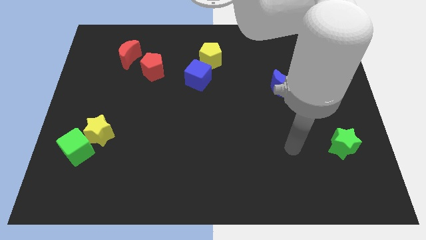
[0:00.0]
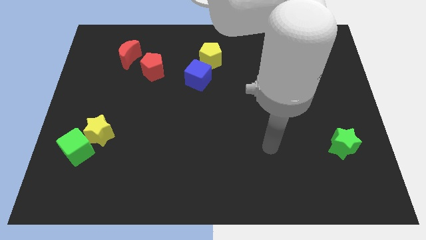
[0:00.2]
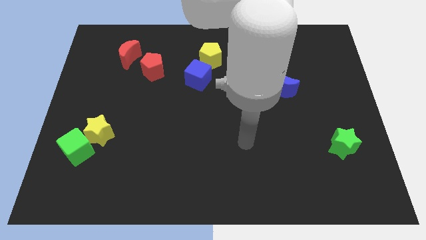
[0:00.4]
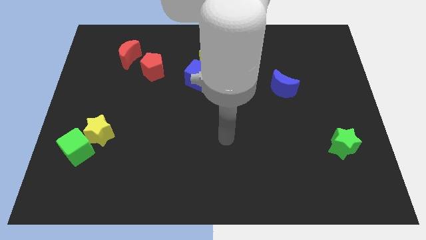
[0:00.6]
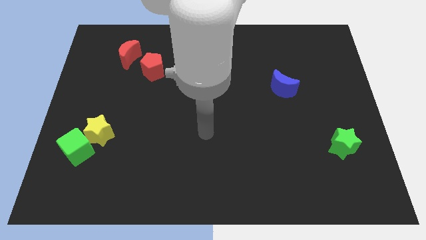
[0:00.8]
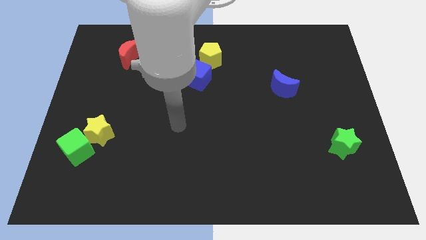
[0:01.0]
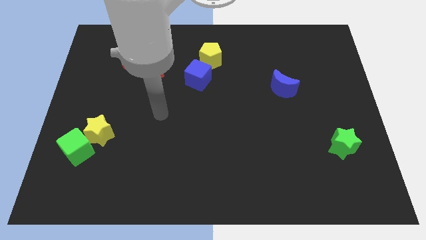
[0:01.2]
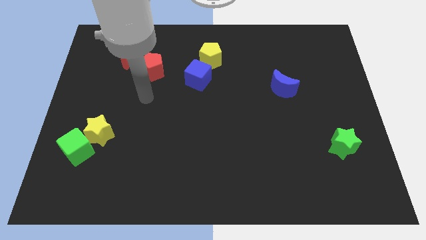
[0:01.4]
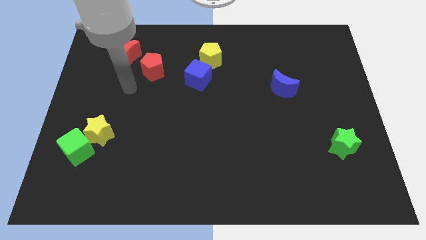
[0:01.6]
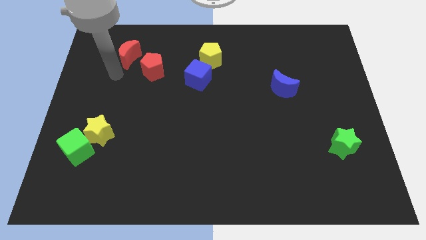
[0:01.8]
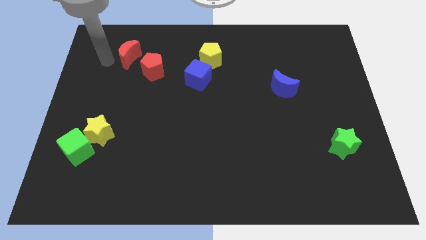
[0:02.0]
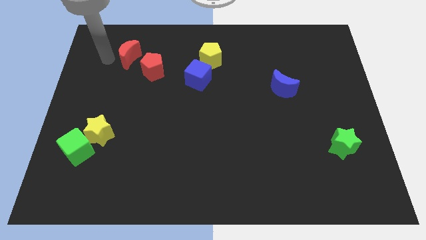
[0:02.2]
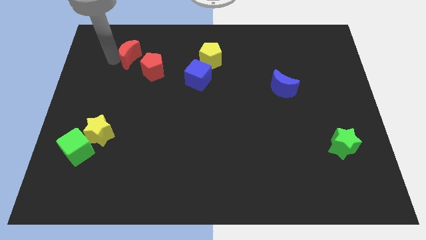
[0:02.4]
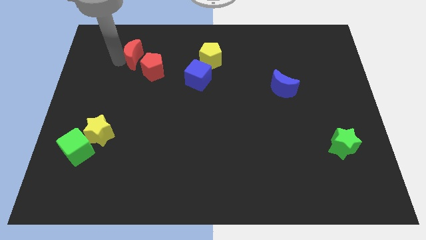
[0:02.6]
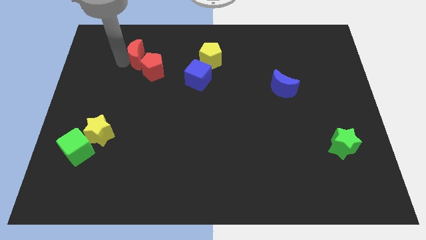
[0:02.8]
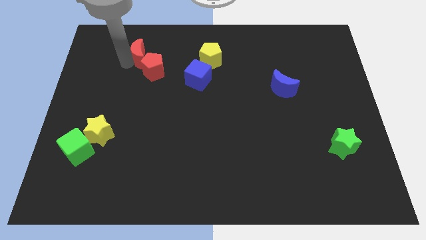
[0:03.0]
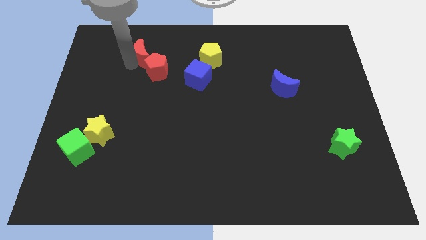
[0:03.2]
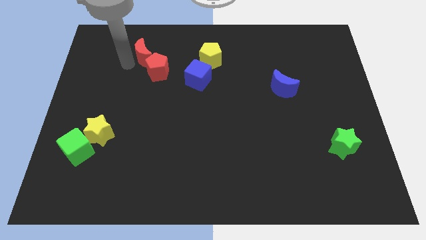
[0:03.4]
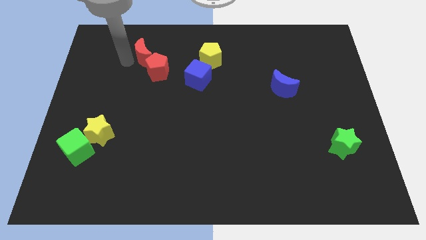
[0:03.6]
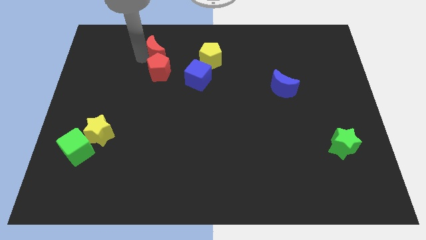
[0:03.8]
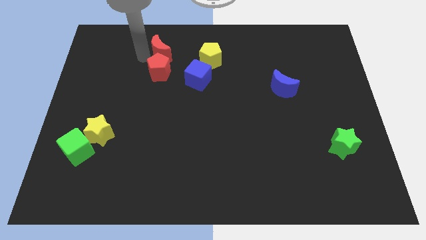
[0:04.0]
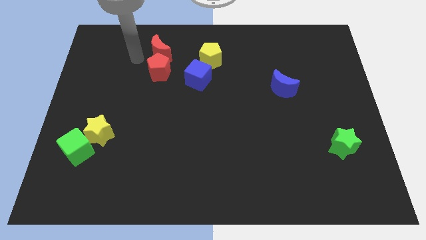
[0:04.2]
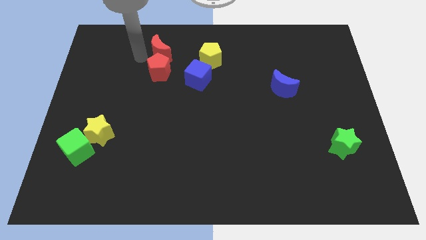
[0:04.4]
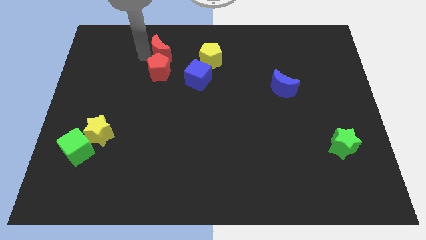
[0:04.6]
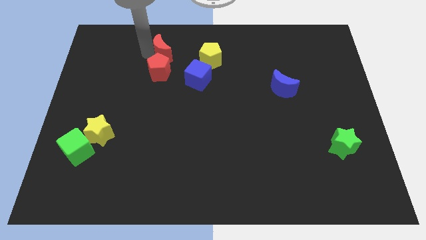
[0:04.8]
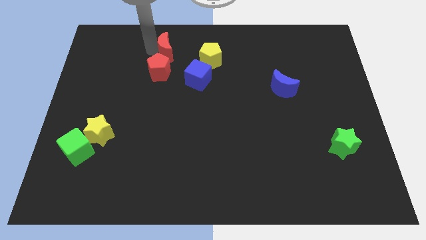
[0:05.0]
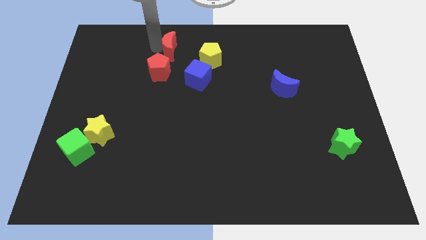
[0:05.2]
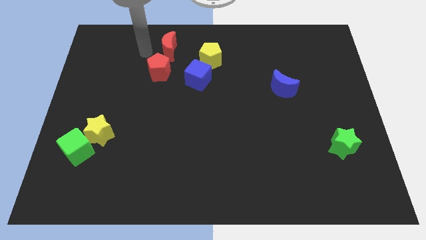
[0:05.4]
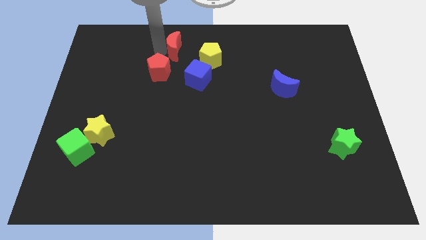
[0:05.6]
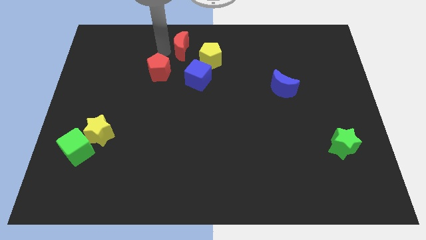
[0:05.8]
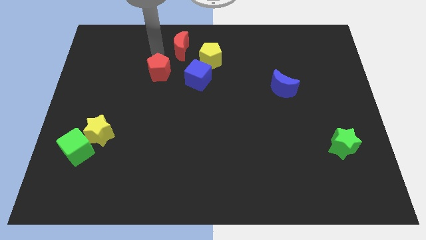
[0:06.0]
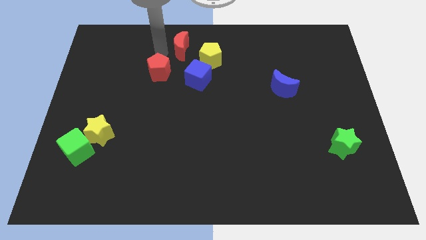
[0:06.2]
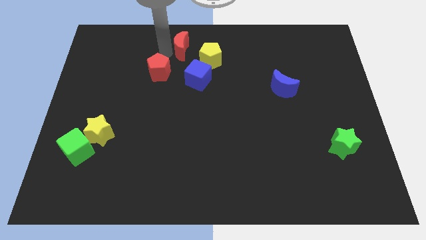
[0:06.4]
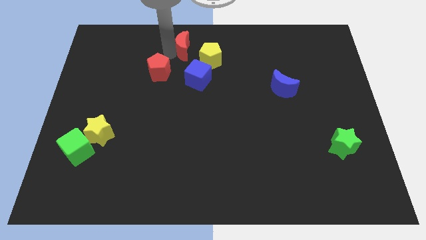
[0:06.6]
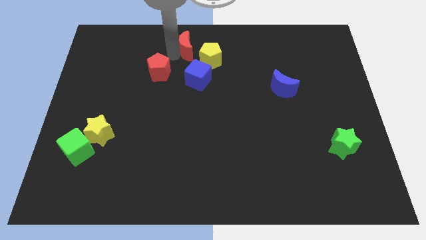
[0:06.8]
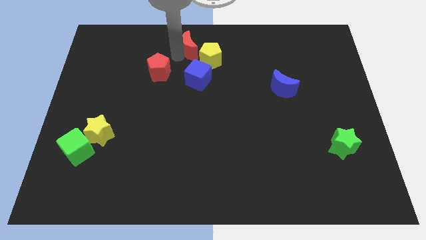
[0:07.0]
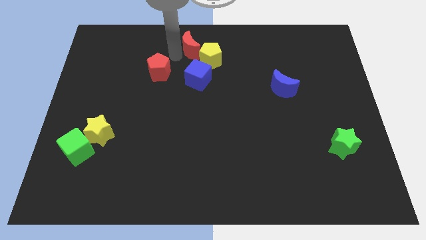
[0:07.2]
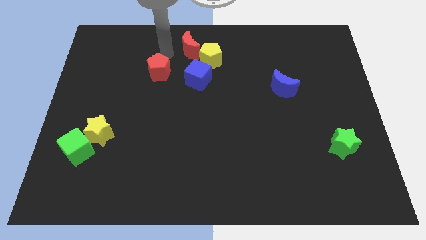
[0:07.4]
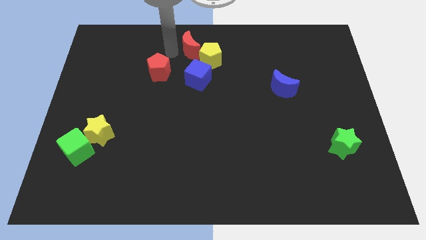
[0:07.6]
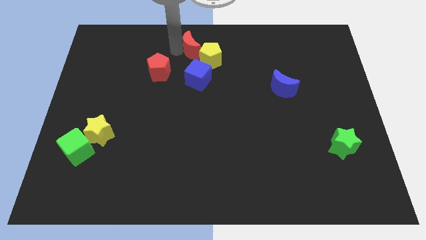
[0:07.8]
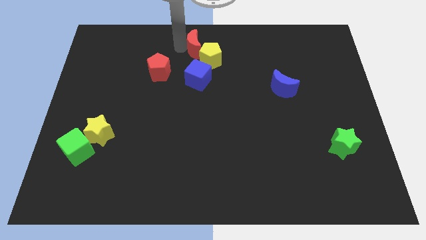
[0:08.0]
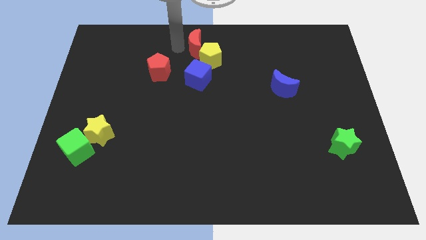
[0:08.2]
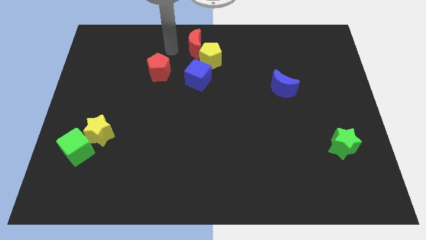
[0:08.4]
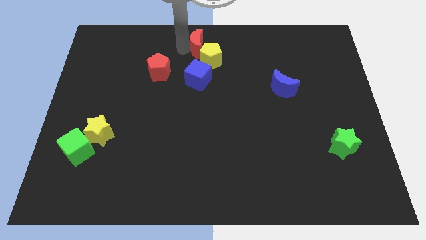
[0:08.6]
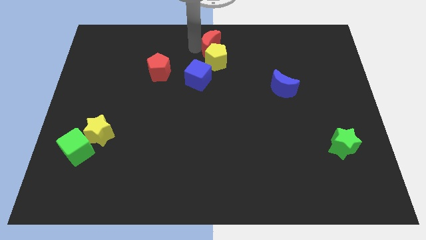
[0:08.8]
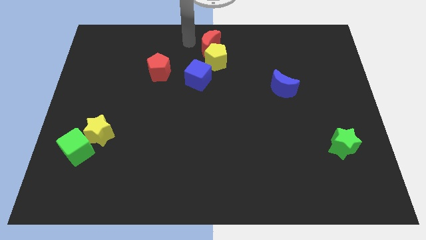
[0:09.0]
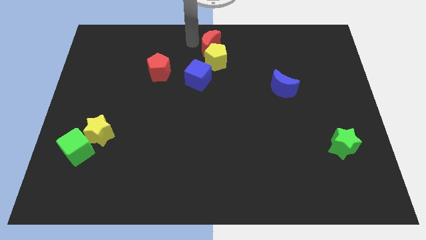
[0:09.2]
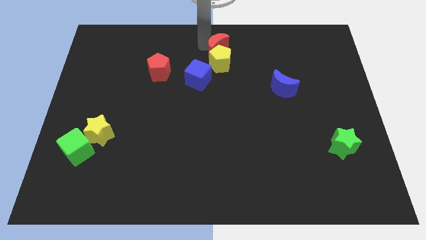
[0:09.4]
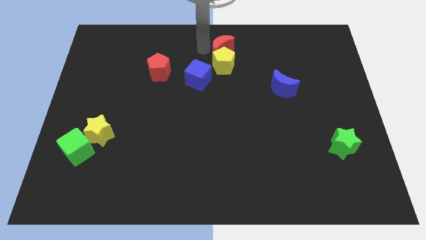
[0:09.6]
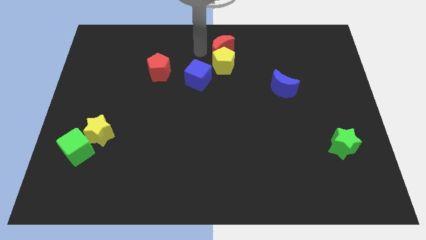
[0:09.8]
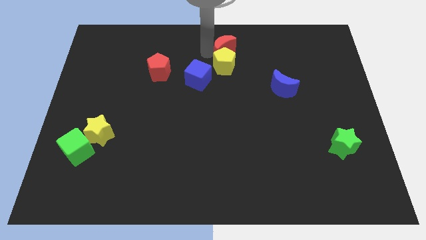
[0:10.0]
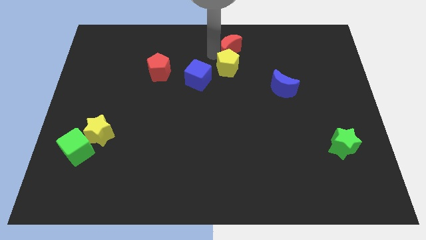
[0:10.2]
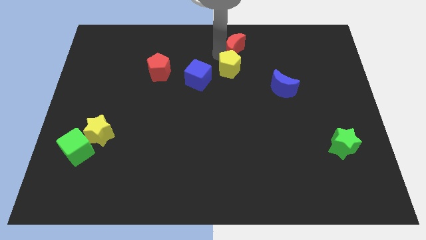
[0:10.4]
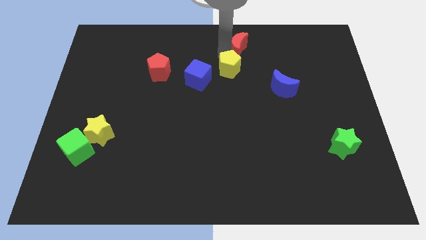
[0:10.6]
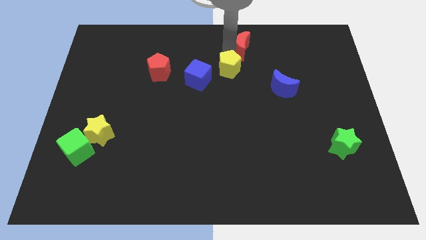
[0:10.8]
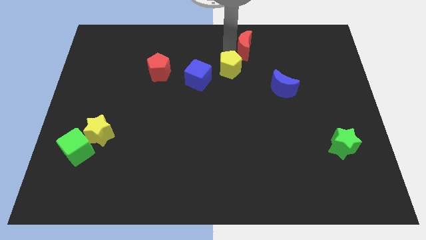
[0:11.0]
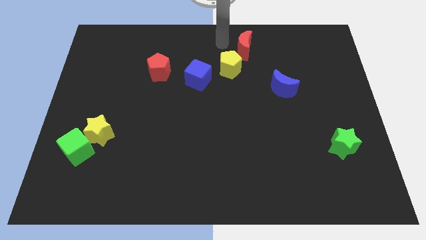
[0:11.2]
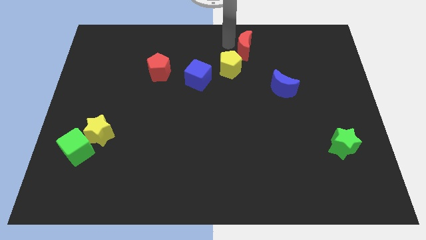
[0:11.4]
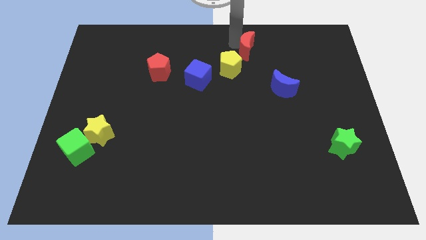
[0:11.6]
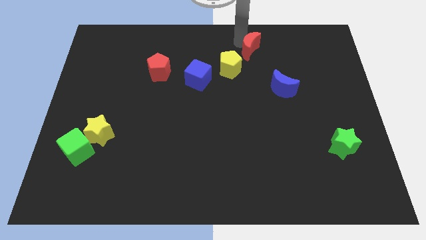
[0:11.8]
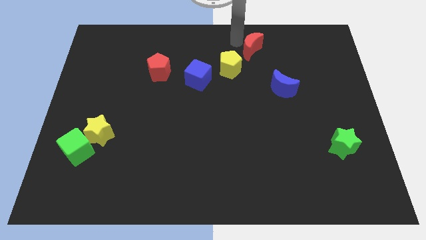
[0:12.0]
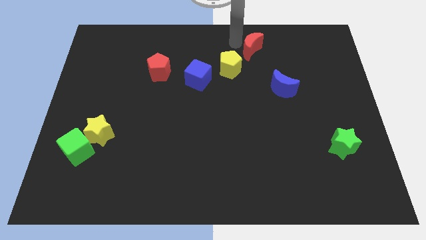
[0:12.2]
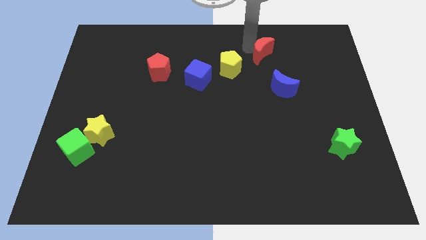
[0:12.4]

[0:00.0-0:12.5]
push the red moon to the top of the blue moon

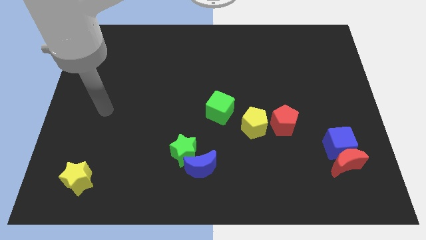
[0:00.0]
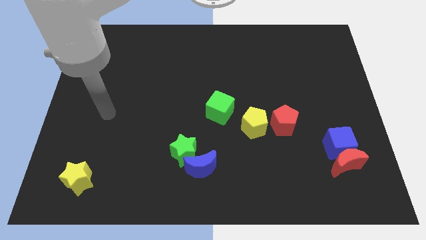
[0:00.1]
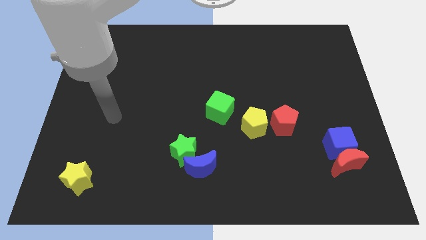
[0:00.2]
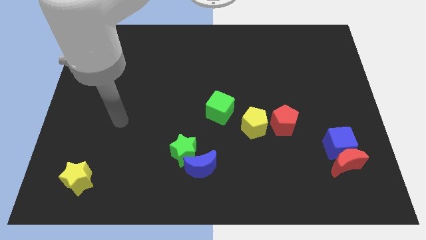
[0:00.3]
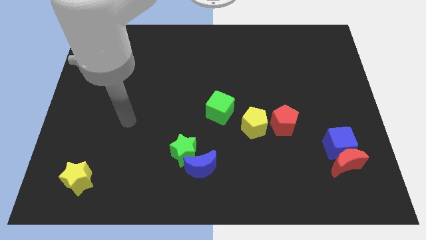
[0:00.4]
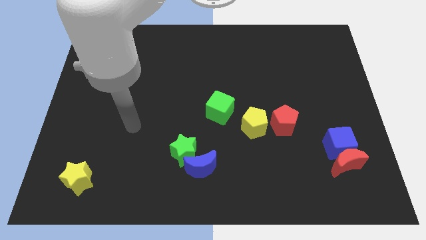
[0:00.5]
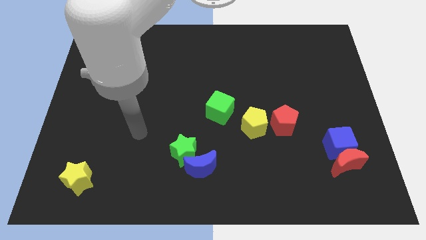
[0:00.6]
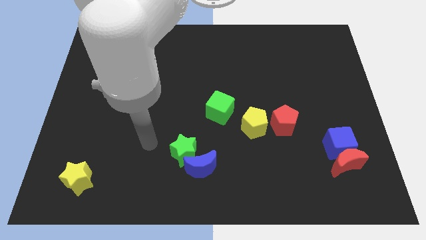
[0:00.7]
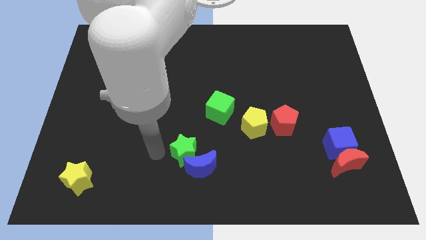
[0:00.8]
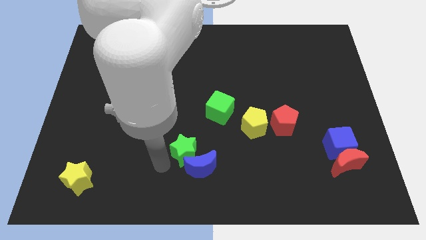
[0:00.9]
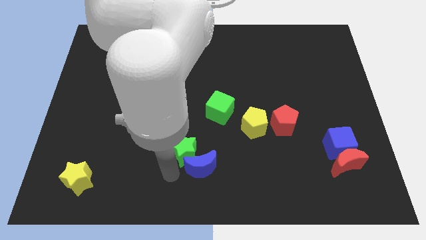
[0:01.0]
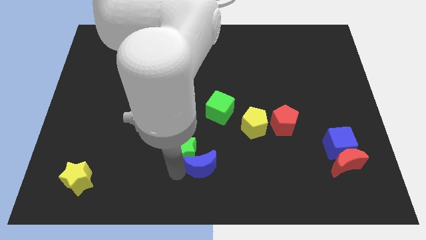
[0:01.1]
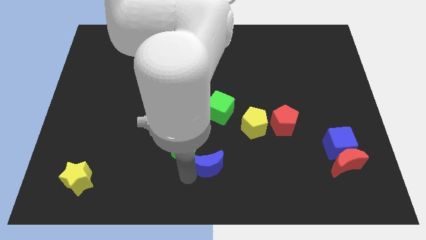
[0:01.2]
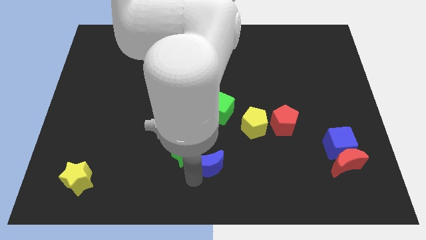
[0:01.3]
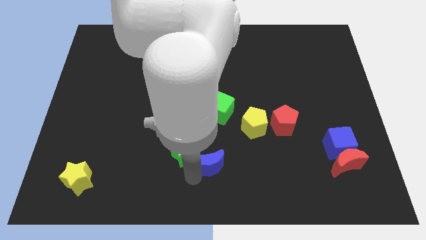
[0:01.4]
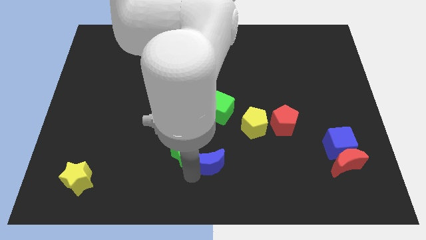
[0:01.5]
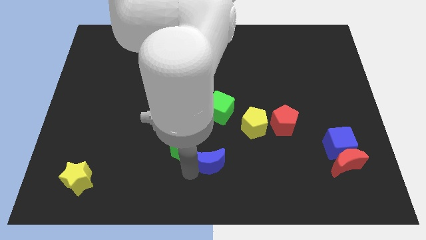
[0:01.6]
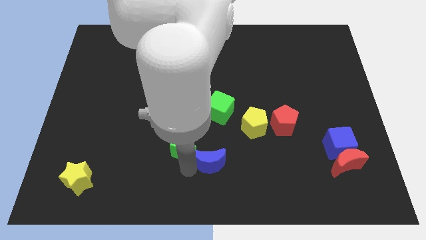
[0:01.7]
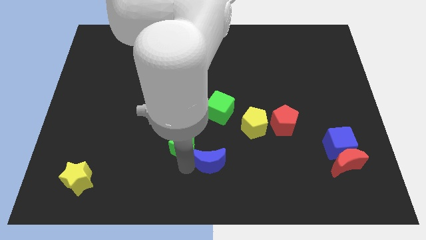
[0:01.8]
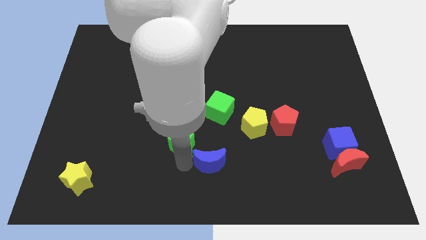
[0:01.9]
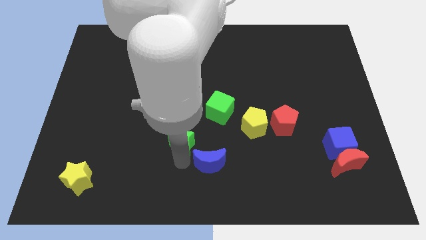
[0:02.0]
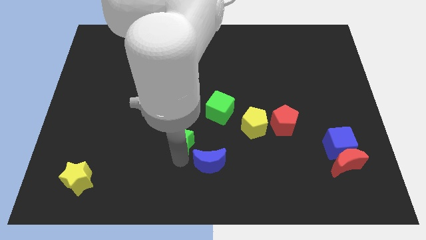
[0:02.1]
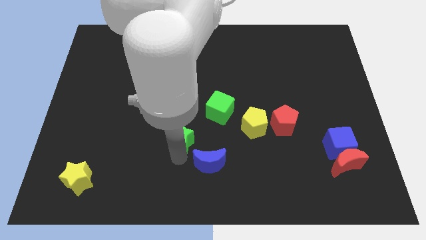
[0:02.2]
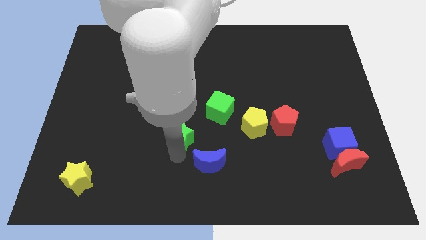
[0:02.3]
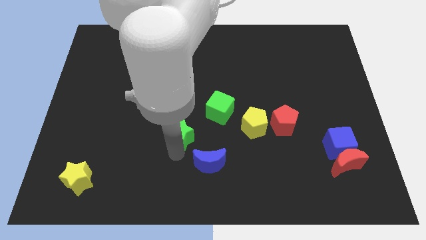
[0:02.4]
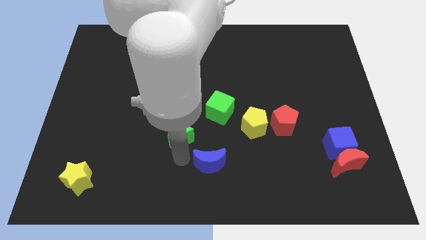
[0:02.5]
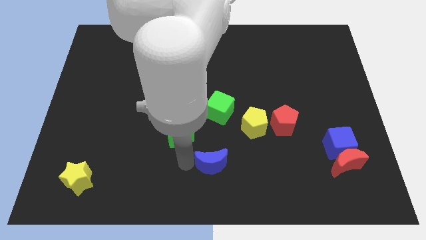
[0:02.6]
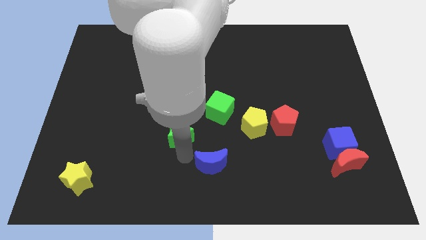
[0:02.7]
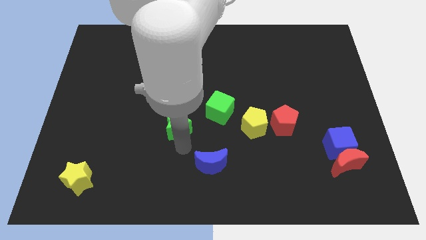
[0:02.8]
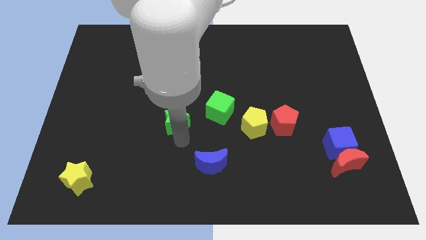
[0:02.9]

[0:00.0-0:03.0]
slide the green star left of the green cube
